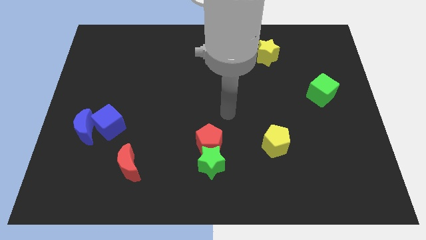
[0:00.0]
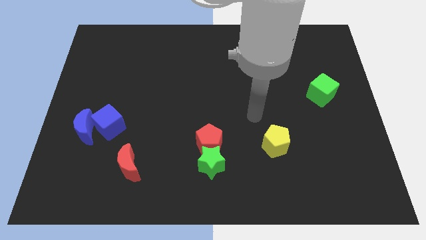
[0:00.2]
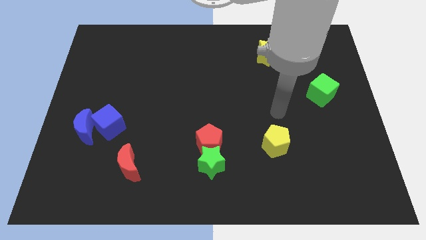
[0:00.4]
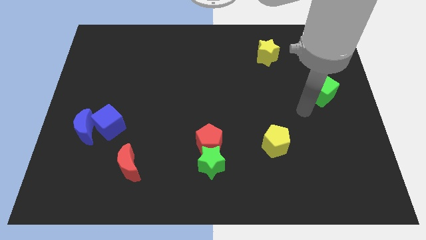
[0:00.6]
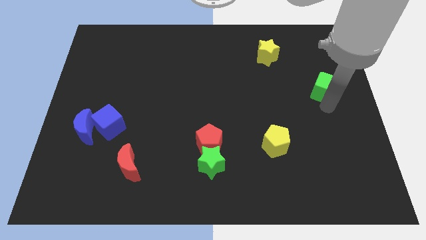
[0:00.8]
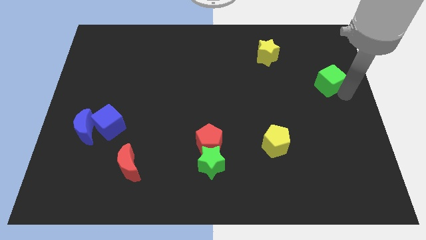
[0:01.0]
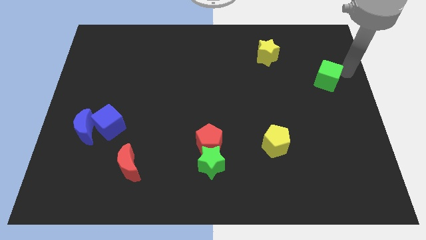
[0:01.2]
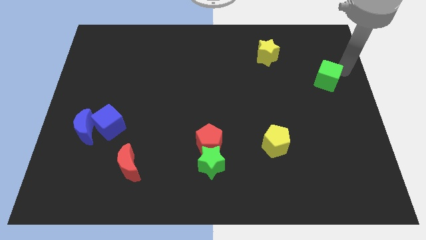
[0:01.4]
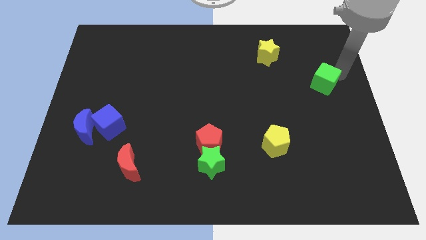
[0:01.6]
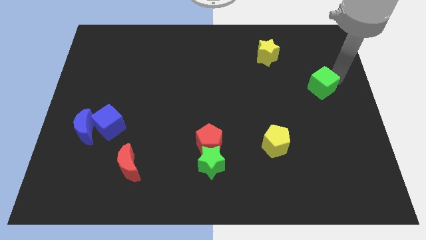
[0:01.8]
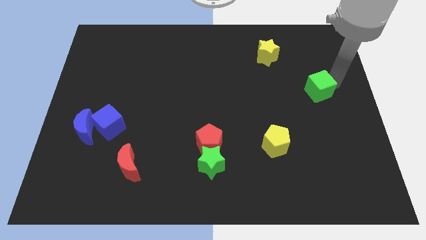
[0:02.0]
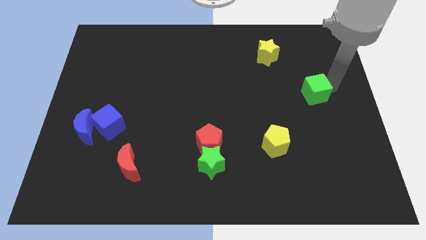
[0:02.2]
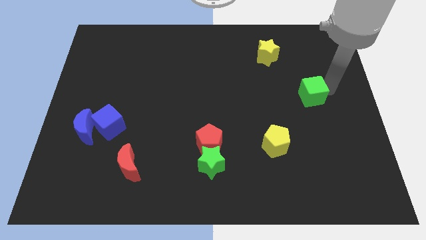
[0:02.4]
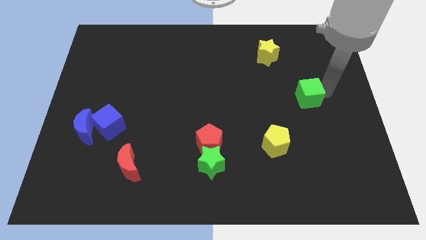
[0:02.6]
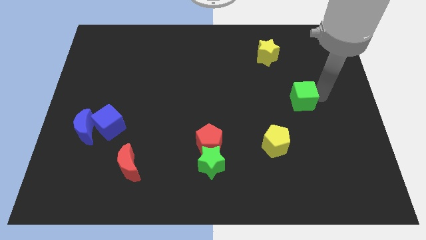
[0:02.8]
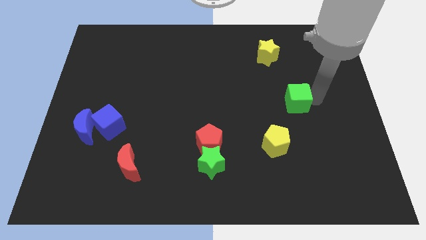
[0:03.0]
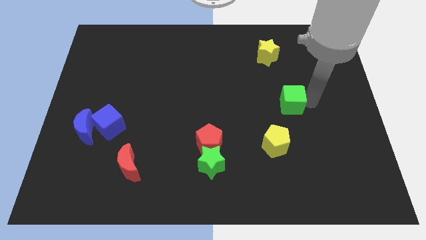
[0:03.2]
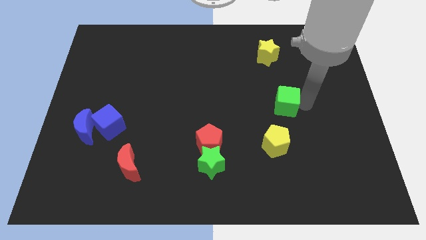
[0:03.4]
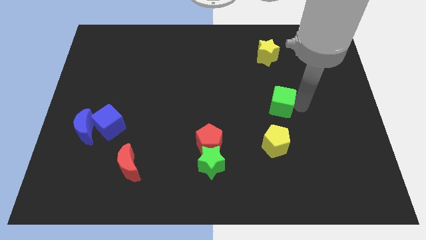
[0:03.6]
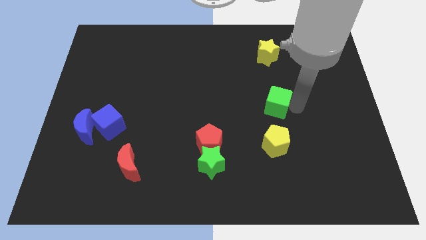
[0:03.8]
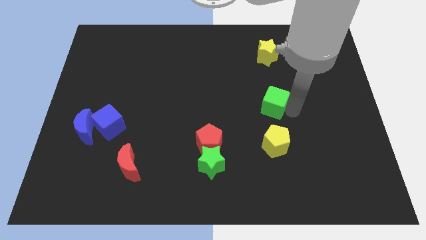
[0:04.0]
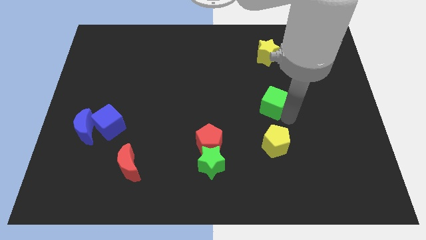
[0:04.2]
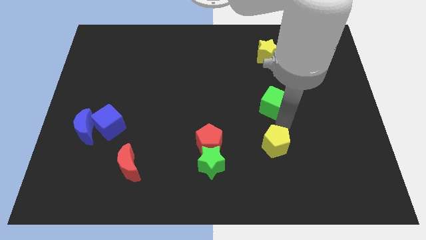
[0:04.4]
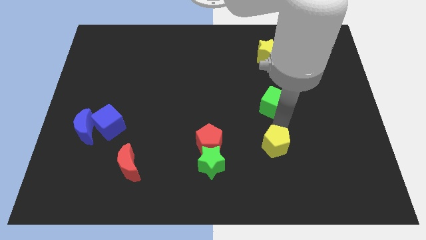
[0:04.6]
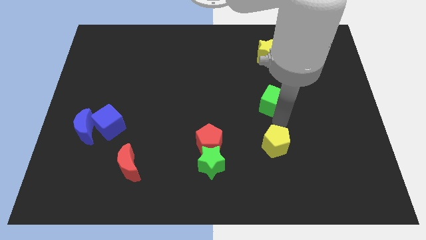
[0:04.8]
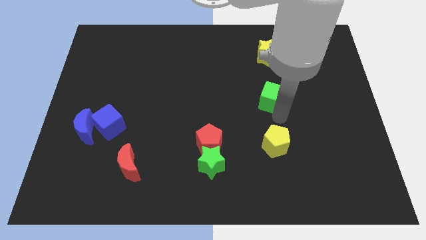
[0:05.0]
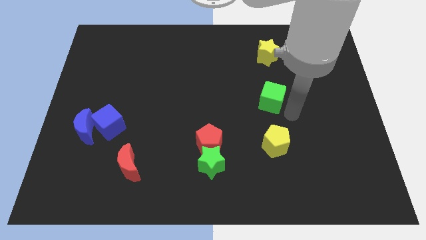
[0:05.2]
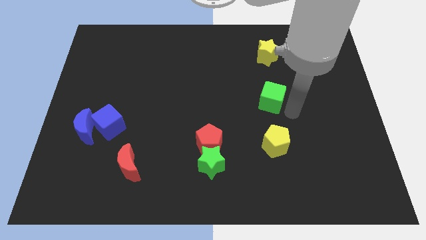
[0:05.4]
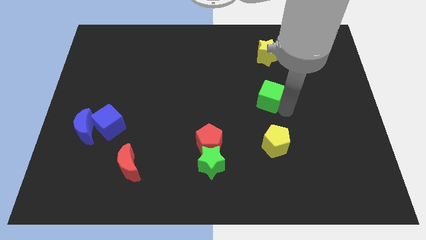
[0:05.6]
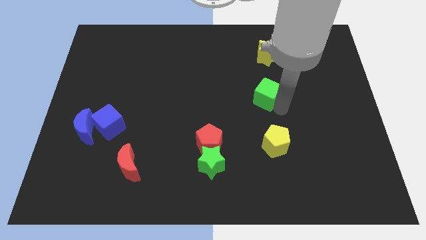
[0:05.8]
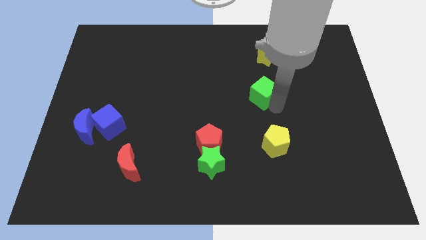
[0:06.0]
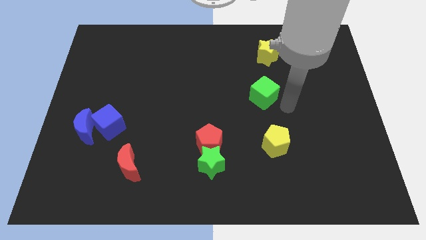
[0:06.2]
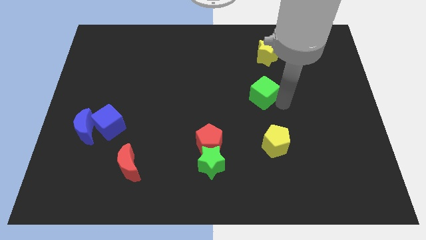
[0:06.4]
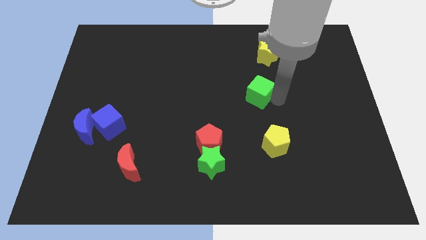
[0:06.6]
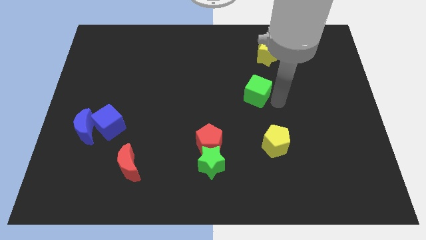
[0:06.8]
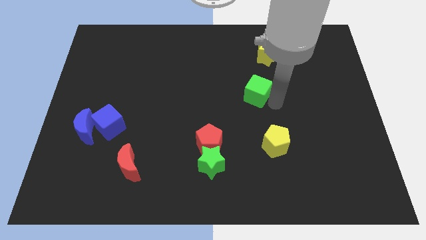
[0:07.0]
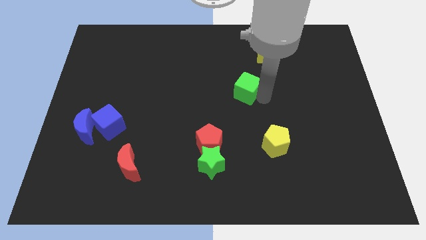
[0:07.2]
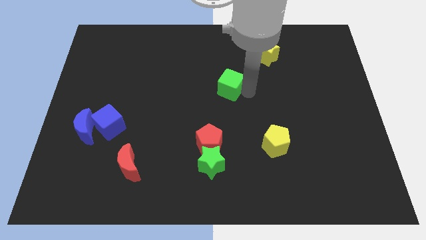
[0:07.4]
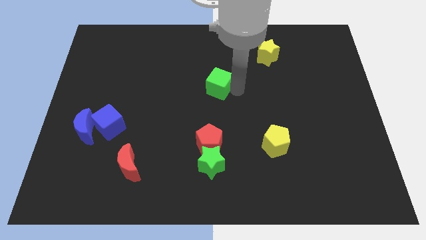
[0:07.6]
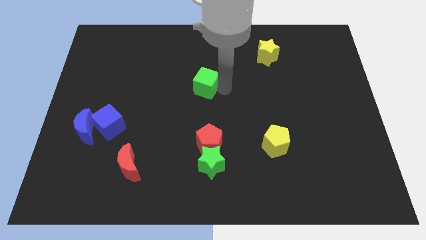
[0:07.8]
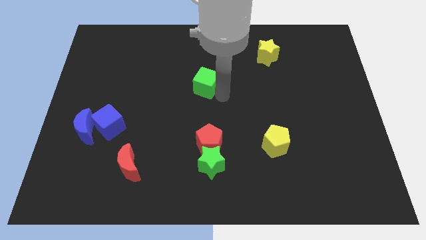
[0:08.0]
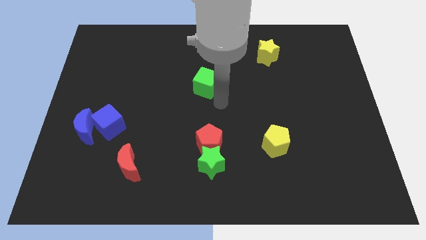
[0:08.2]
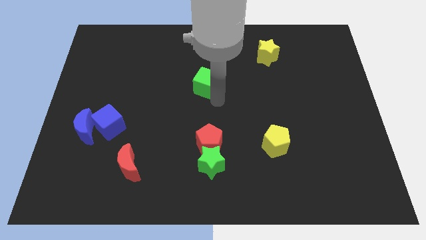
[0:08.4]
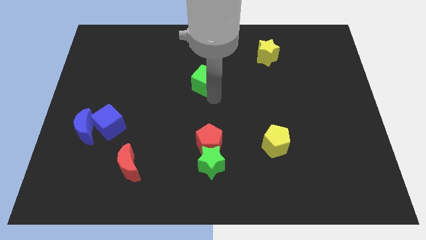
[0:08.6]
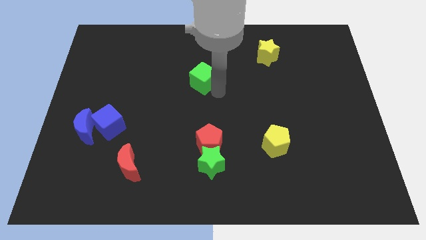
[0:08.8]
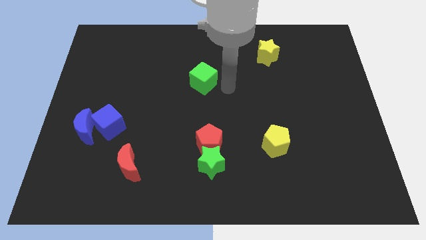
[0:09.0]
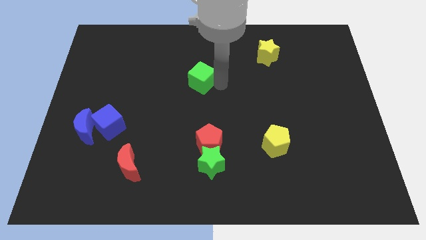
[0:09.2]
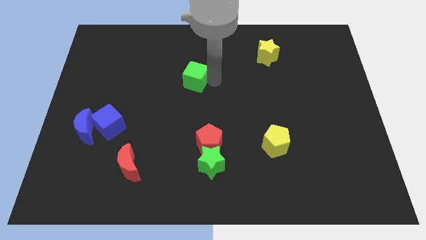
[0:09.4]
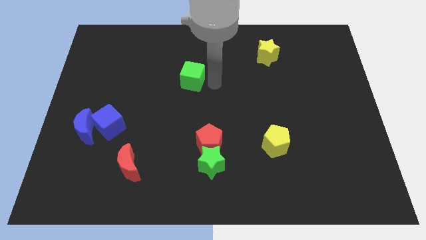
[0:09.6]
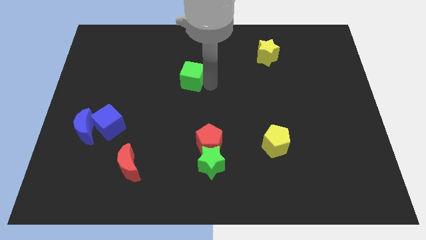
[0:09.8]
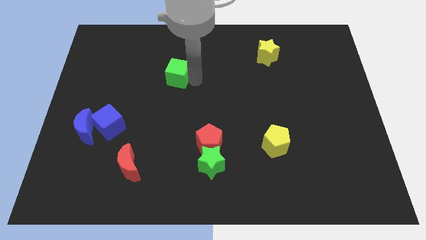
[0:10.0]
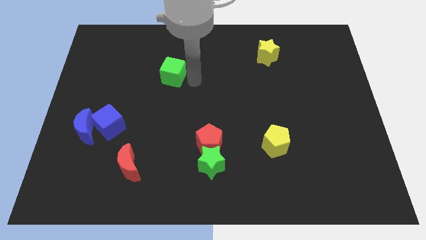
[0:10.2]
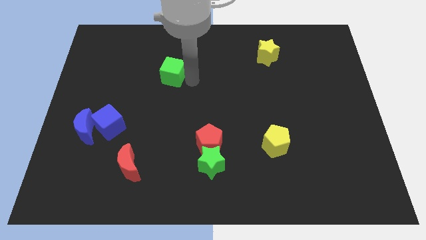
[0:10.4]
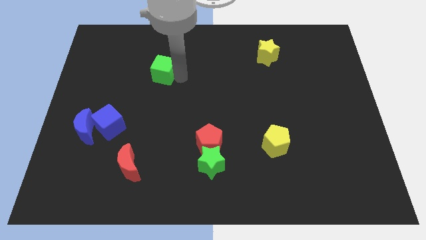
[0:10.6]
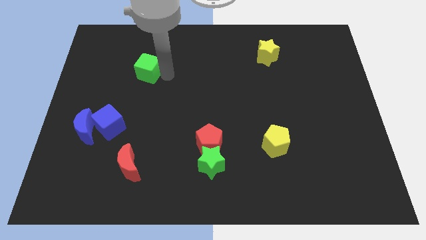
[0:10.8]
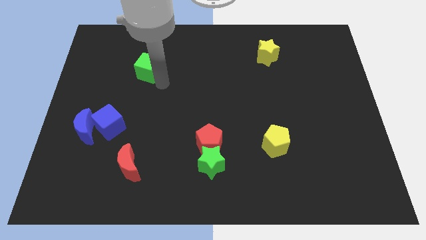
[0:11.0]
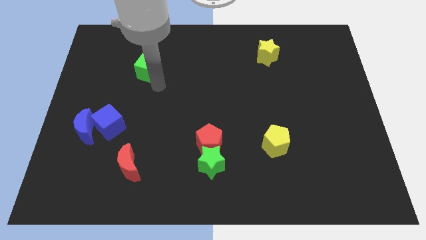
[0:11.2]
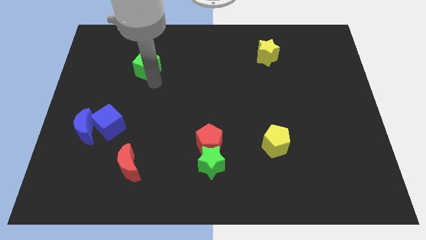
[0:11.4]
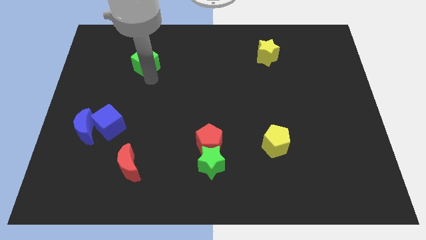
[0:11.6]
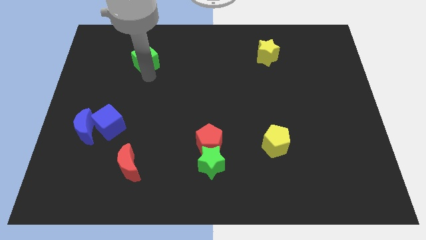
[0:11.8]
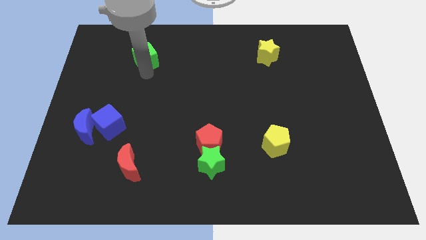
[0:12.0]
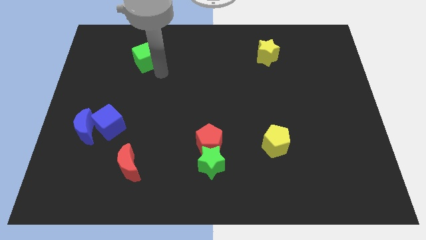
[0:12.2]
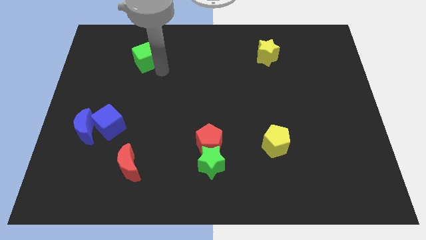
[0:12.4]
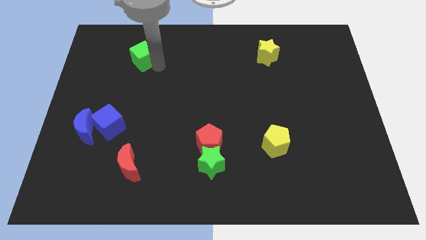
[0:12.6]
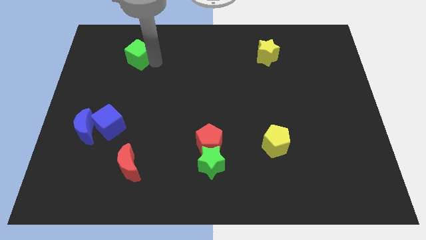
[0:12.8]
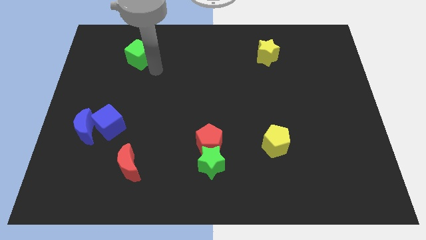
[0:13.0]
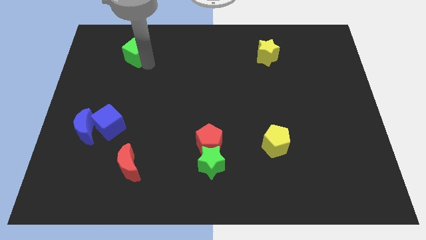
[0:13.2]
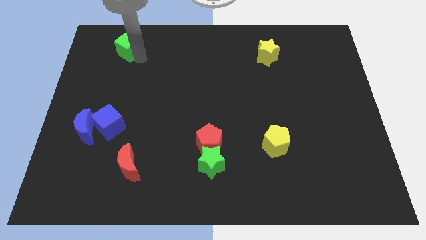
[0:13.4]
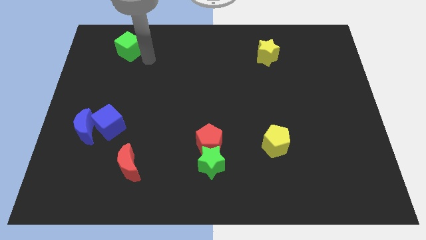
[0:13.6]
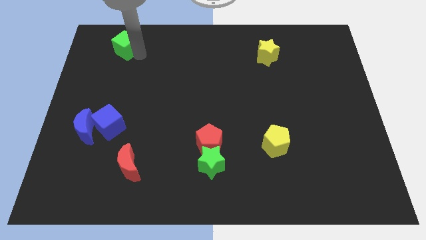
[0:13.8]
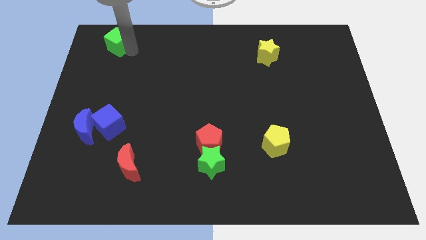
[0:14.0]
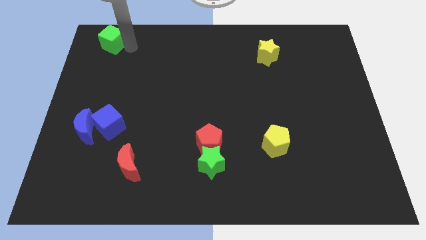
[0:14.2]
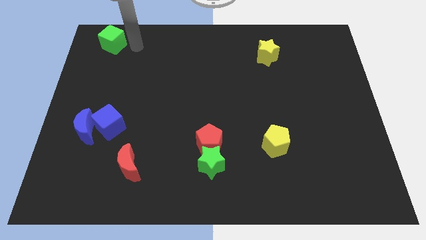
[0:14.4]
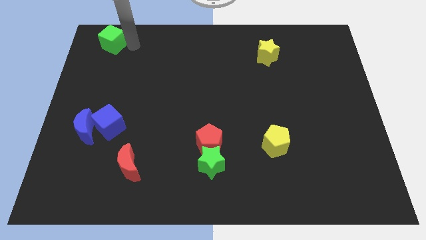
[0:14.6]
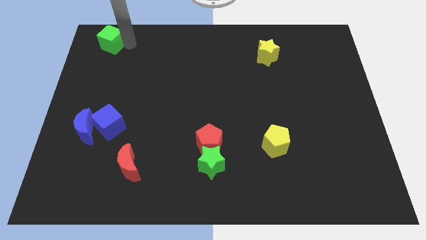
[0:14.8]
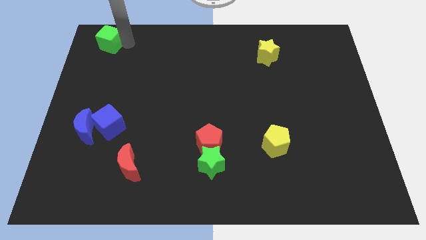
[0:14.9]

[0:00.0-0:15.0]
push the green cube to the top left of the board
